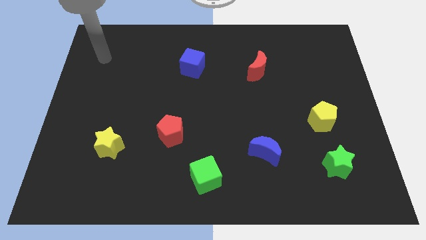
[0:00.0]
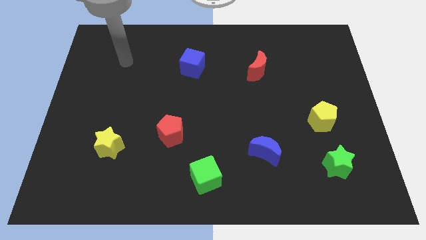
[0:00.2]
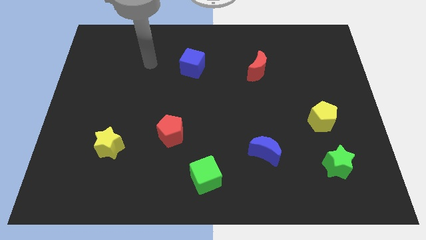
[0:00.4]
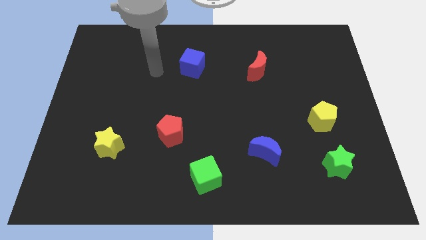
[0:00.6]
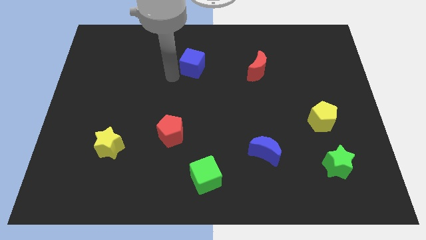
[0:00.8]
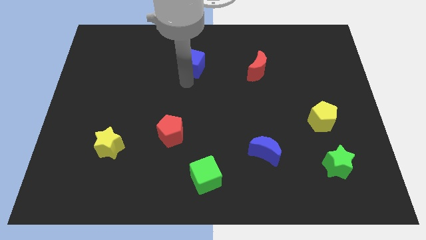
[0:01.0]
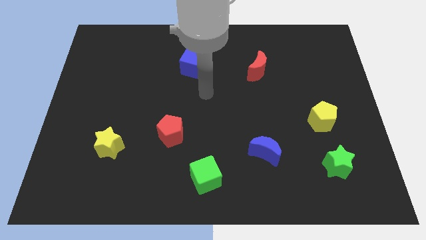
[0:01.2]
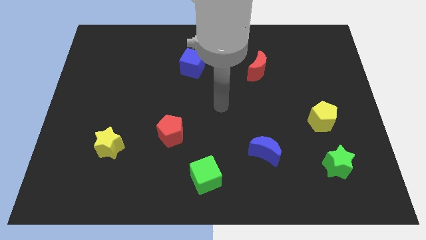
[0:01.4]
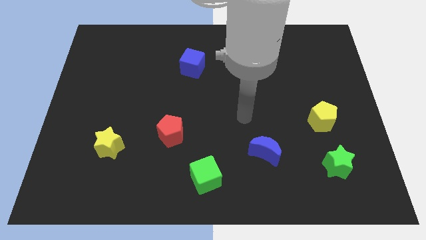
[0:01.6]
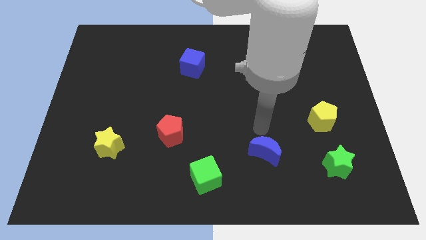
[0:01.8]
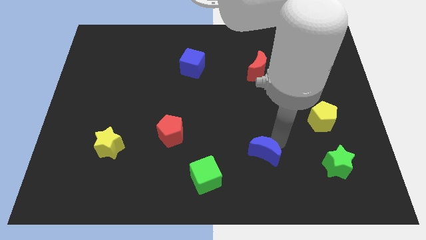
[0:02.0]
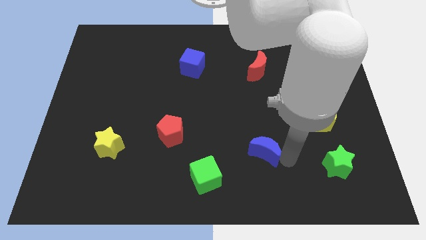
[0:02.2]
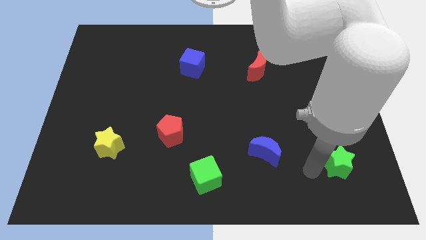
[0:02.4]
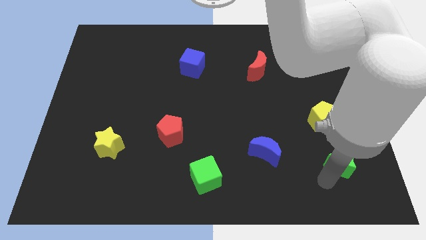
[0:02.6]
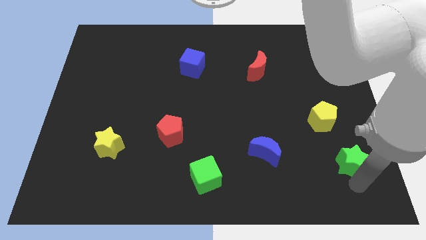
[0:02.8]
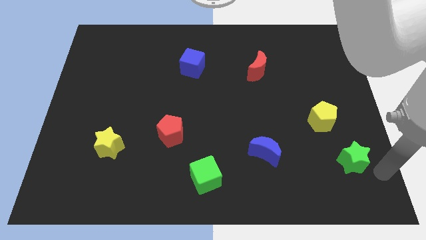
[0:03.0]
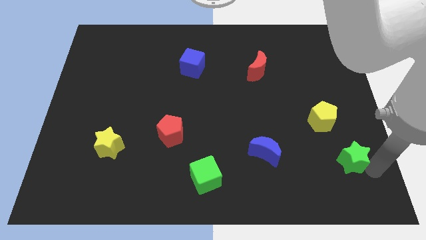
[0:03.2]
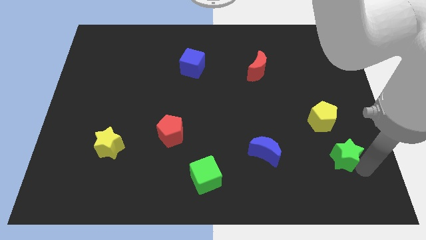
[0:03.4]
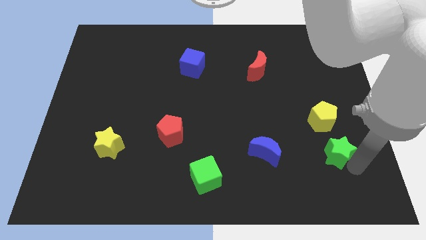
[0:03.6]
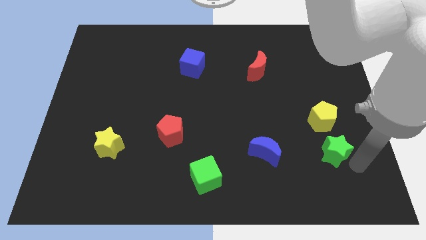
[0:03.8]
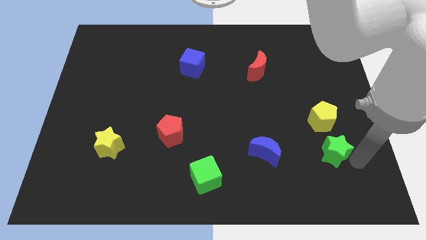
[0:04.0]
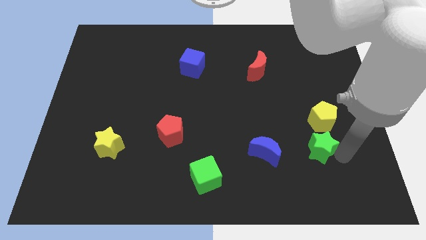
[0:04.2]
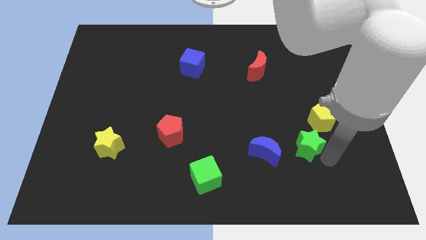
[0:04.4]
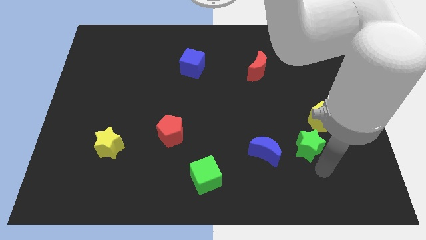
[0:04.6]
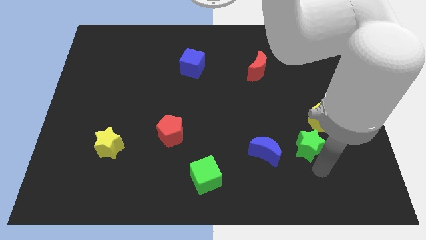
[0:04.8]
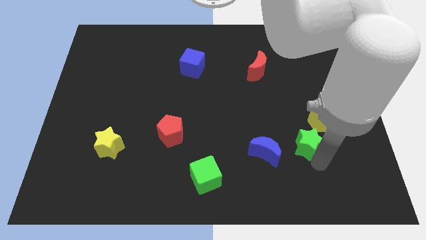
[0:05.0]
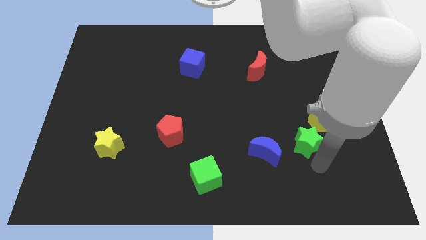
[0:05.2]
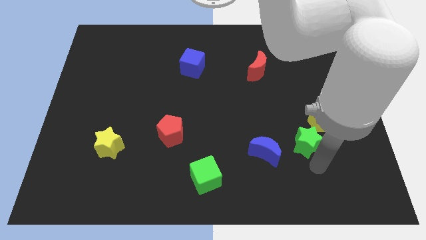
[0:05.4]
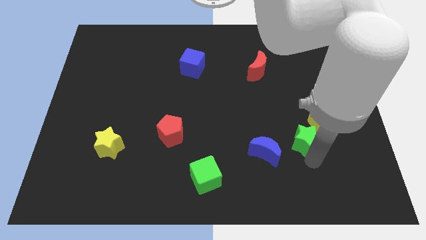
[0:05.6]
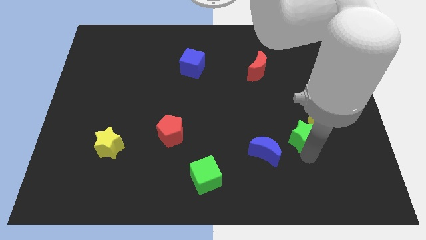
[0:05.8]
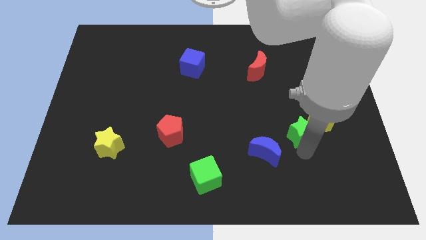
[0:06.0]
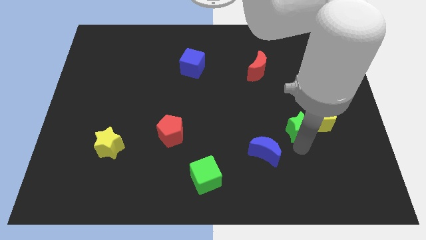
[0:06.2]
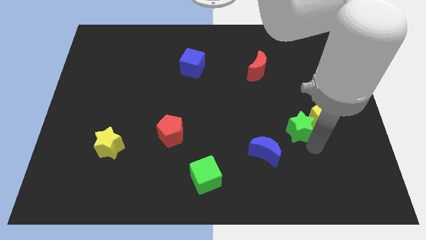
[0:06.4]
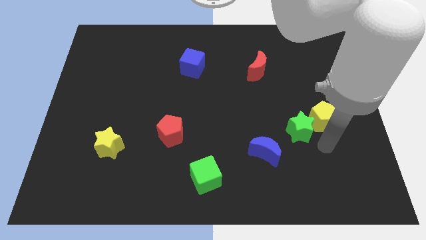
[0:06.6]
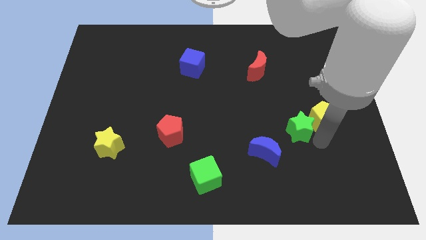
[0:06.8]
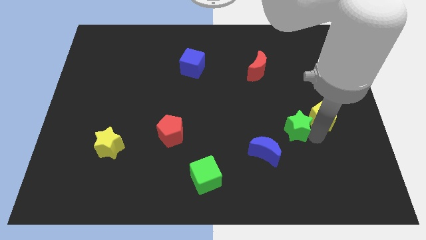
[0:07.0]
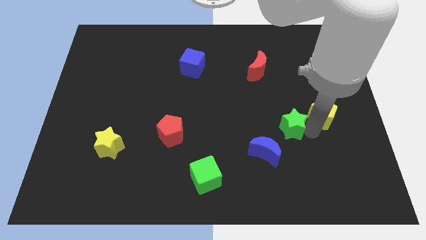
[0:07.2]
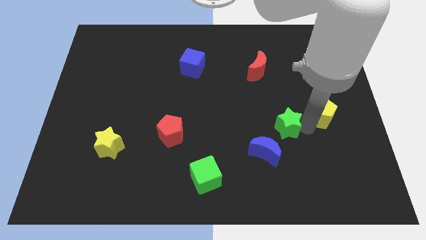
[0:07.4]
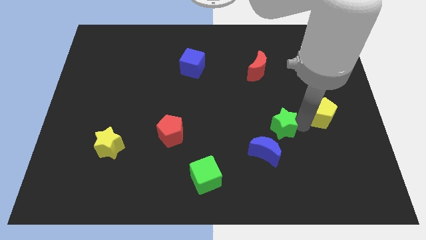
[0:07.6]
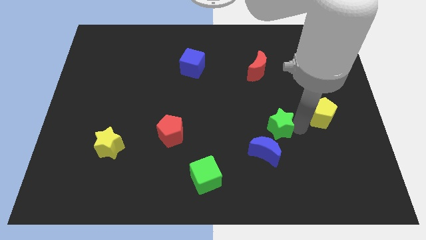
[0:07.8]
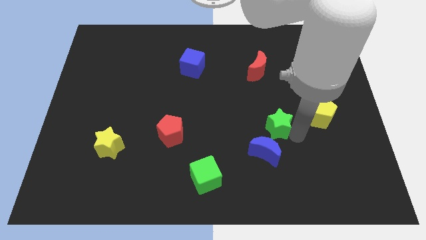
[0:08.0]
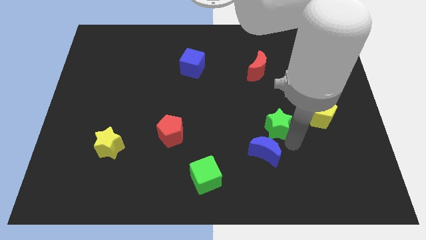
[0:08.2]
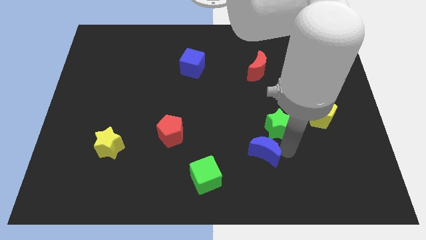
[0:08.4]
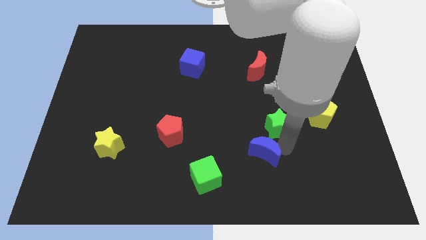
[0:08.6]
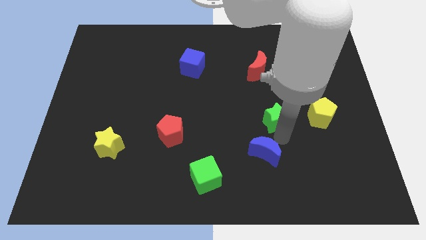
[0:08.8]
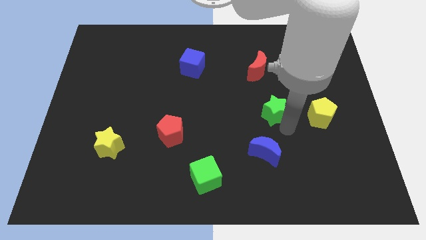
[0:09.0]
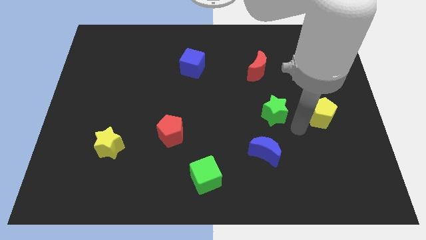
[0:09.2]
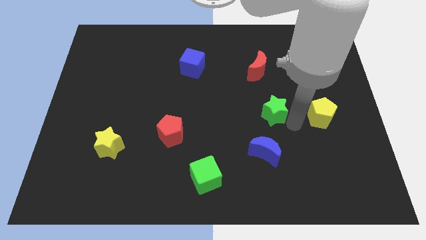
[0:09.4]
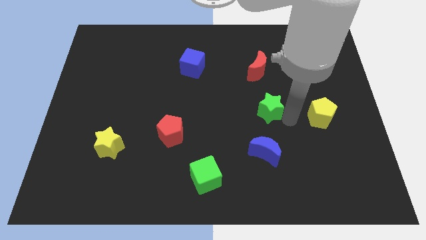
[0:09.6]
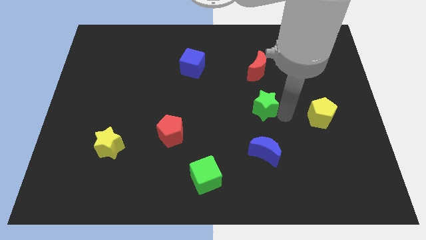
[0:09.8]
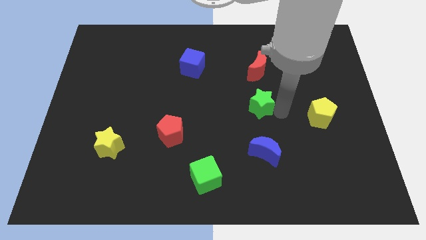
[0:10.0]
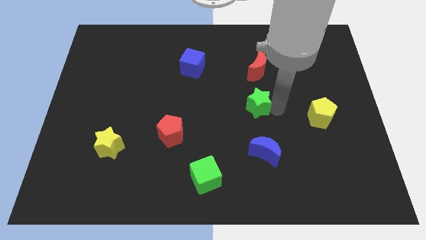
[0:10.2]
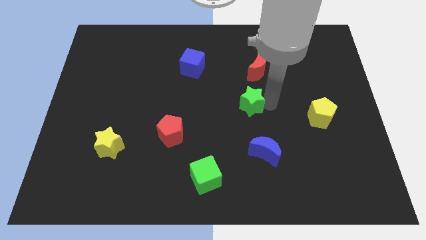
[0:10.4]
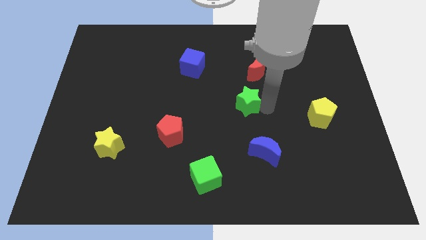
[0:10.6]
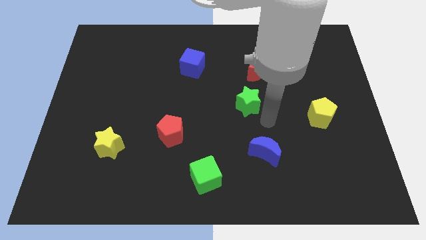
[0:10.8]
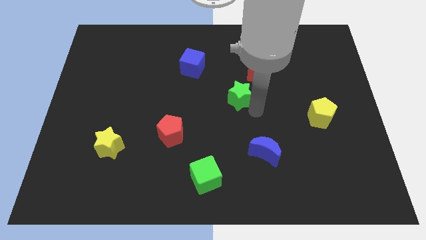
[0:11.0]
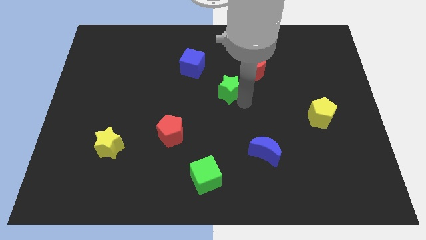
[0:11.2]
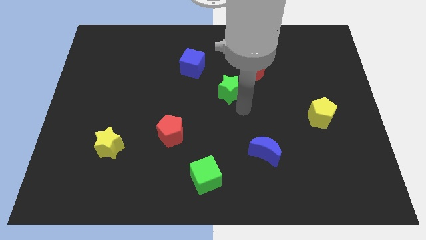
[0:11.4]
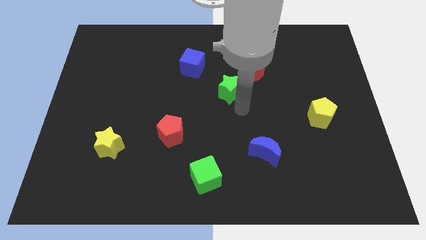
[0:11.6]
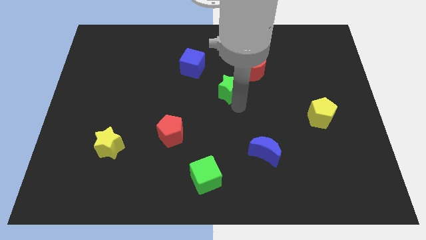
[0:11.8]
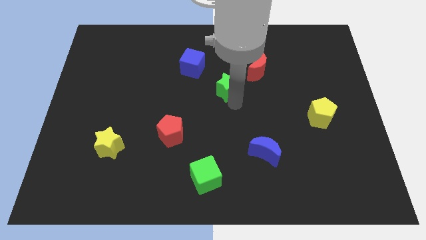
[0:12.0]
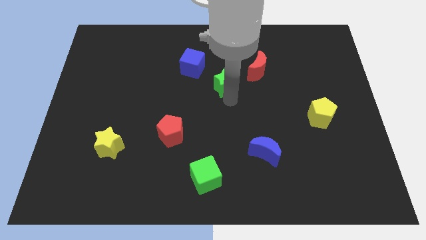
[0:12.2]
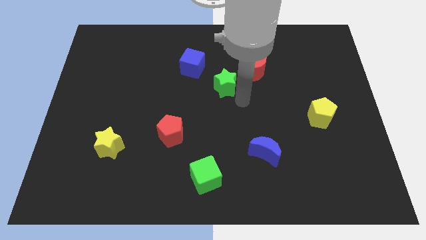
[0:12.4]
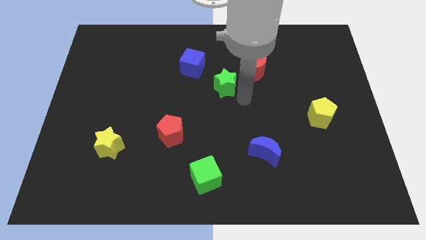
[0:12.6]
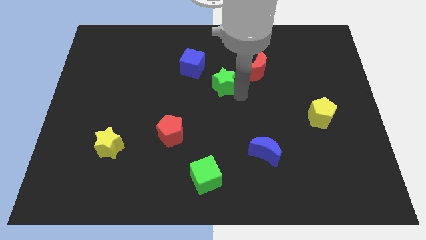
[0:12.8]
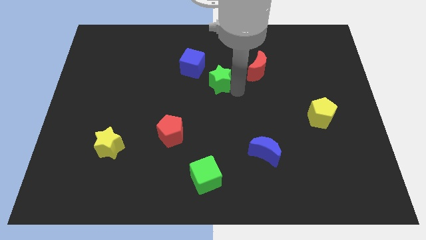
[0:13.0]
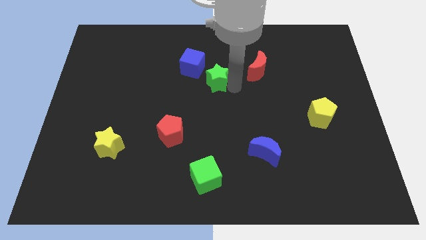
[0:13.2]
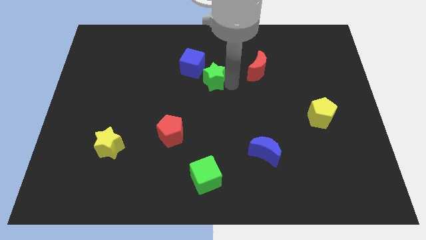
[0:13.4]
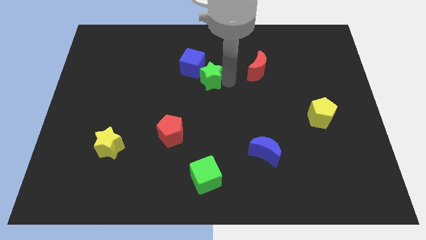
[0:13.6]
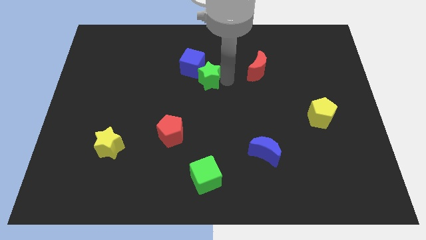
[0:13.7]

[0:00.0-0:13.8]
put the green star towards the blue cube

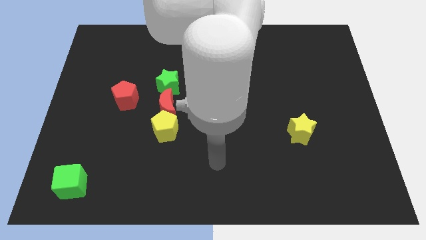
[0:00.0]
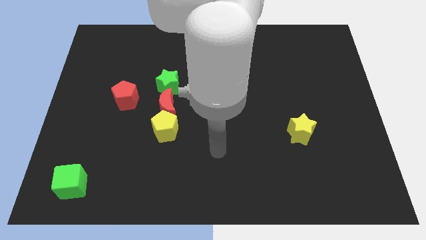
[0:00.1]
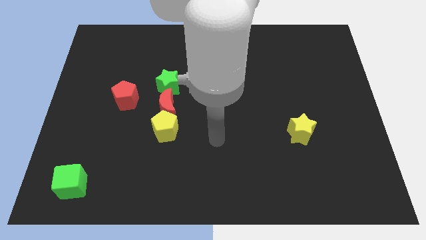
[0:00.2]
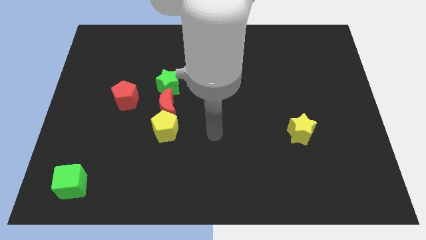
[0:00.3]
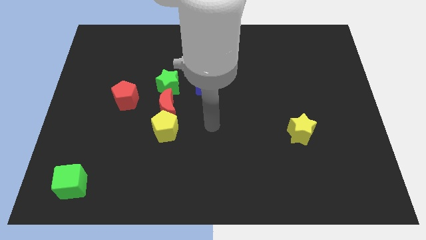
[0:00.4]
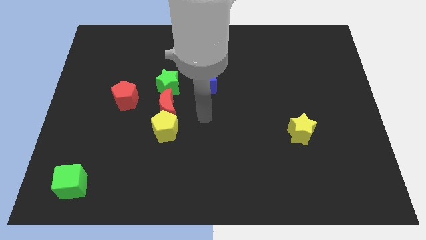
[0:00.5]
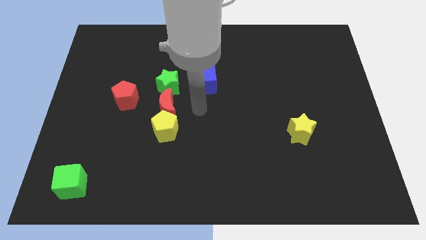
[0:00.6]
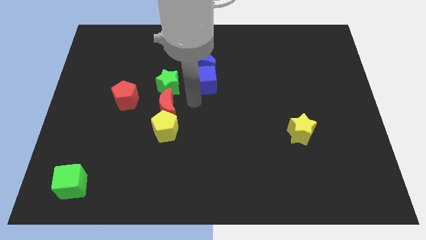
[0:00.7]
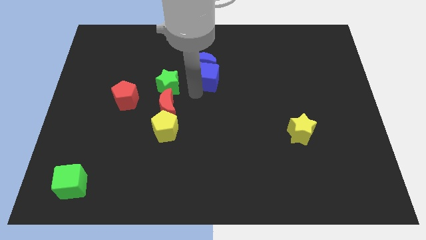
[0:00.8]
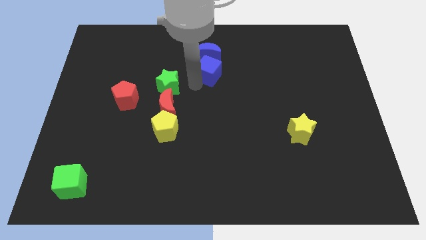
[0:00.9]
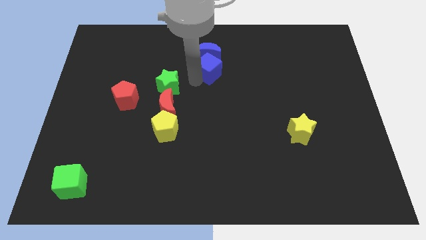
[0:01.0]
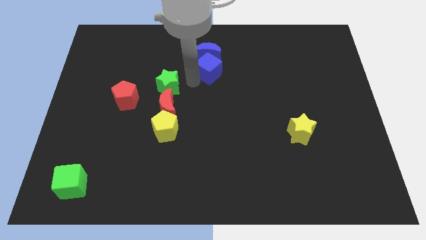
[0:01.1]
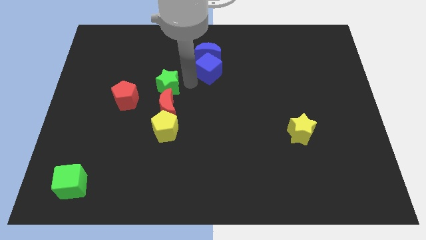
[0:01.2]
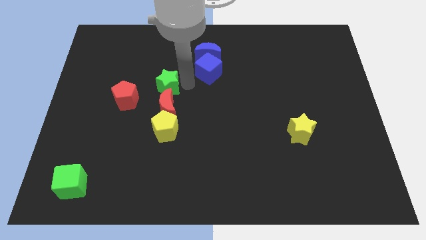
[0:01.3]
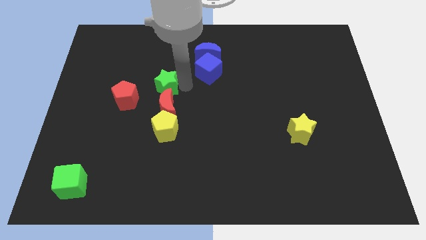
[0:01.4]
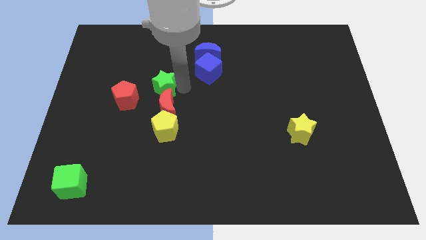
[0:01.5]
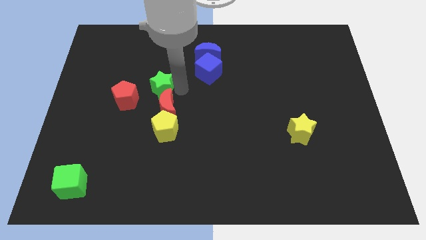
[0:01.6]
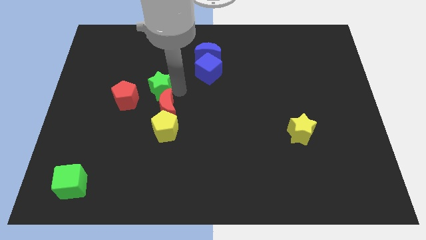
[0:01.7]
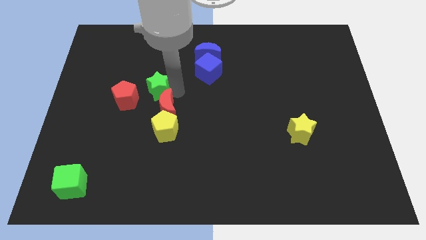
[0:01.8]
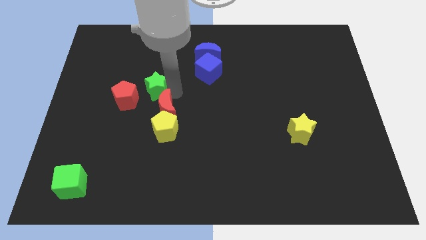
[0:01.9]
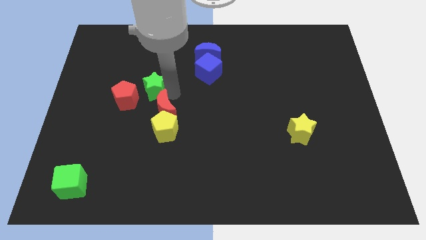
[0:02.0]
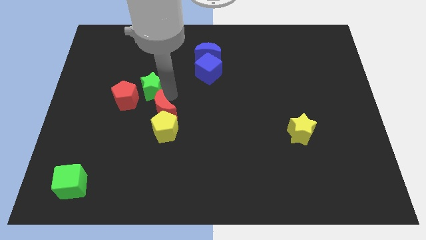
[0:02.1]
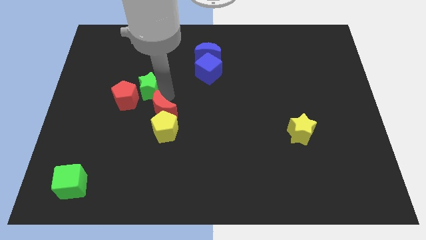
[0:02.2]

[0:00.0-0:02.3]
move the green star close to the red pentagon
